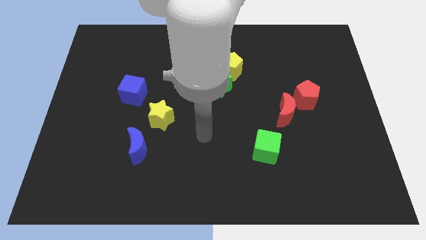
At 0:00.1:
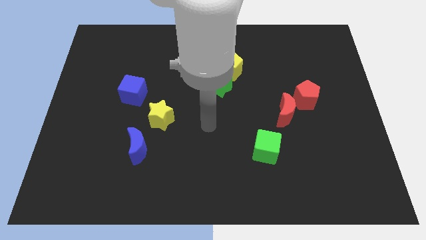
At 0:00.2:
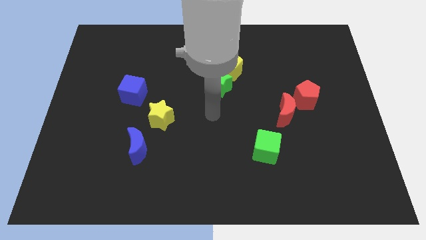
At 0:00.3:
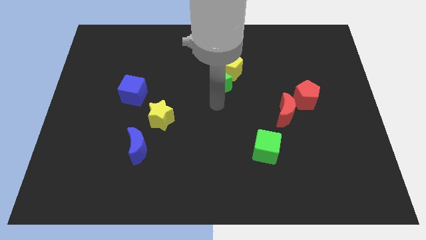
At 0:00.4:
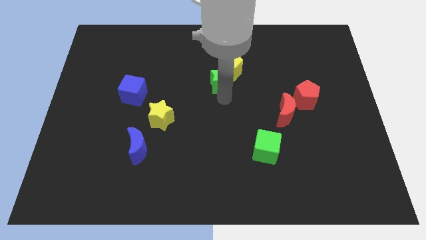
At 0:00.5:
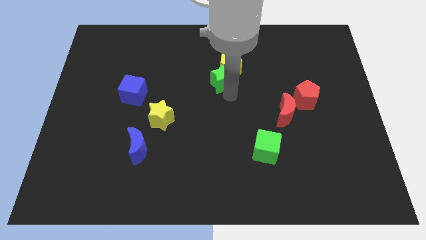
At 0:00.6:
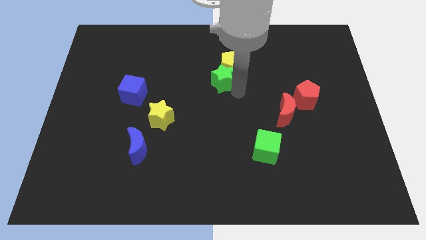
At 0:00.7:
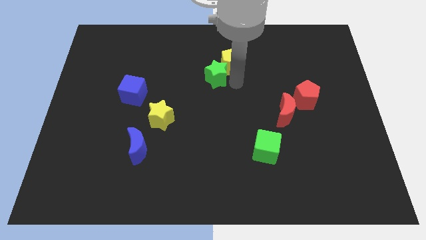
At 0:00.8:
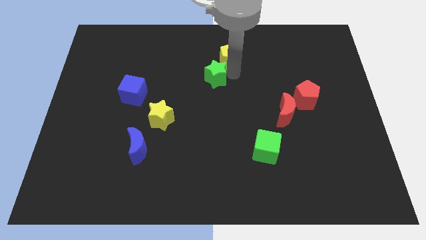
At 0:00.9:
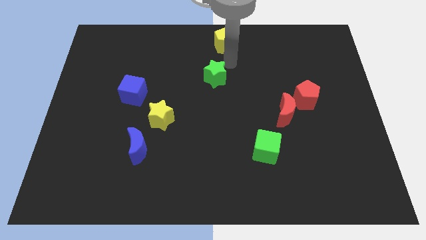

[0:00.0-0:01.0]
move the green star away from the yellow pentagon

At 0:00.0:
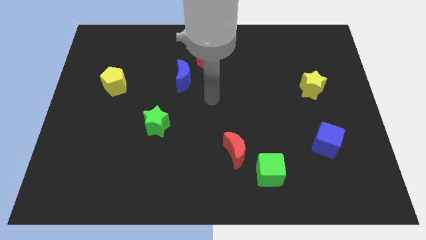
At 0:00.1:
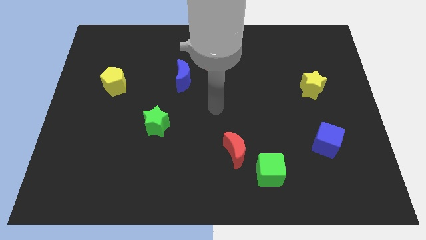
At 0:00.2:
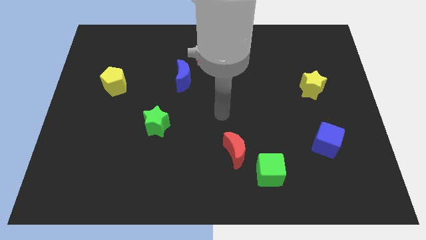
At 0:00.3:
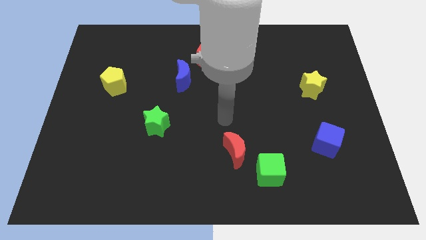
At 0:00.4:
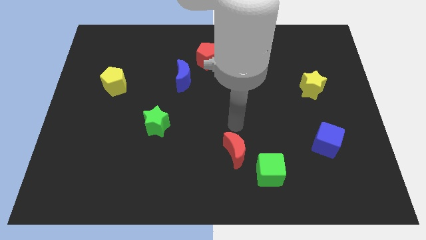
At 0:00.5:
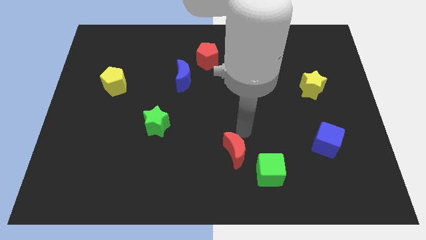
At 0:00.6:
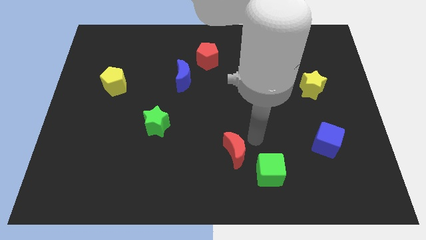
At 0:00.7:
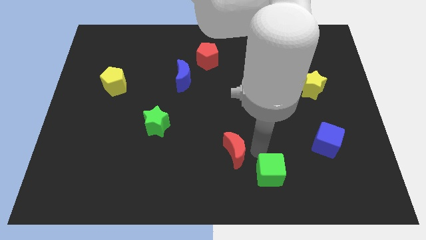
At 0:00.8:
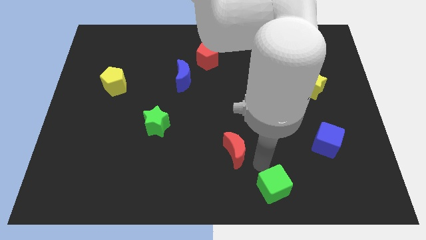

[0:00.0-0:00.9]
pull the red moon apart from the green cube

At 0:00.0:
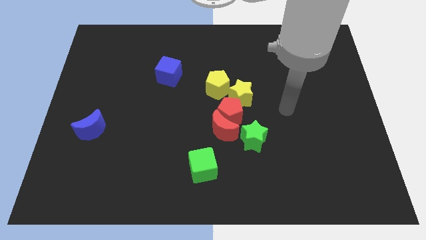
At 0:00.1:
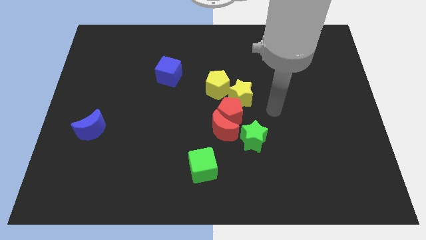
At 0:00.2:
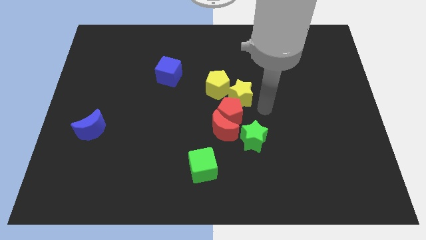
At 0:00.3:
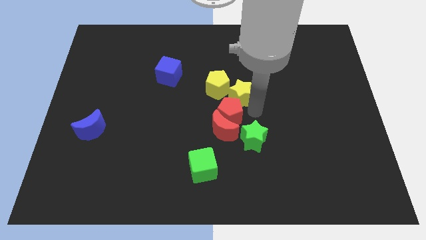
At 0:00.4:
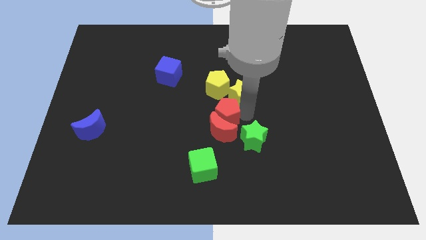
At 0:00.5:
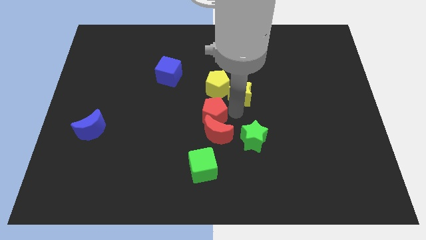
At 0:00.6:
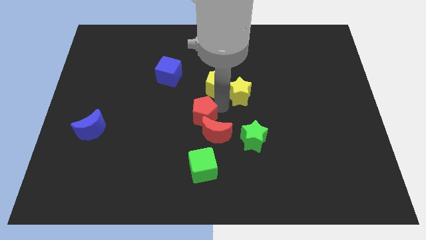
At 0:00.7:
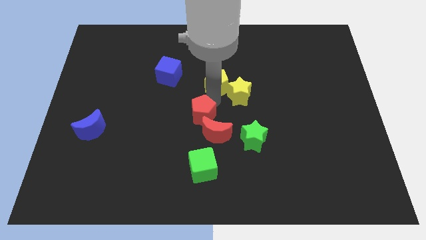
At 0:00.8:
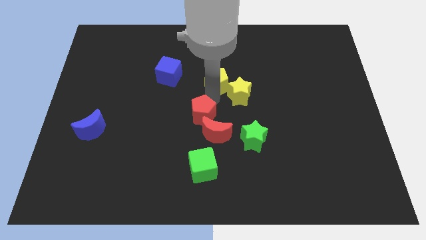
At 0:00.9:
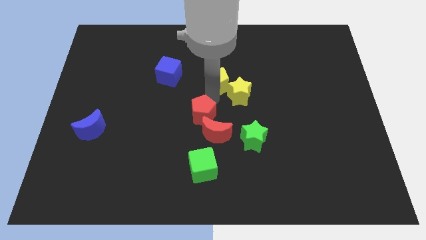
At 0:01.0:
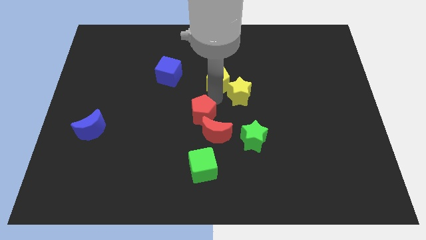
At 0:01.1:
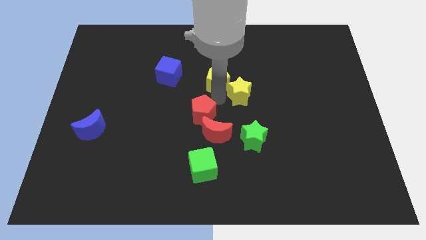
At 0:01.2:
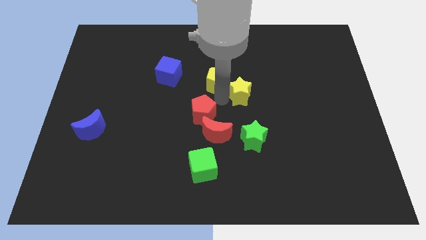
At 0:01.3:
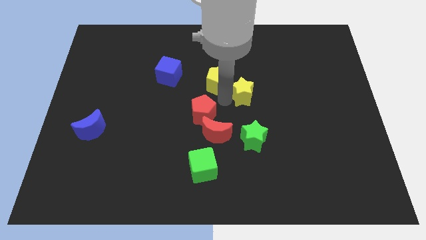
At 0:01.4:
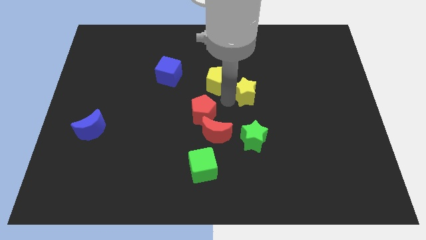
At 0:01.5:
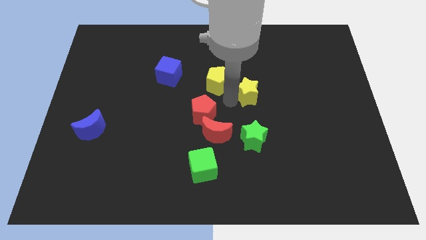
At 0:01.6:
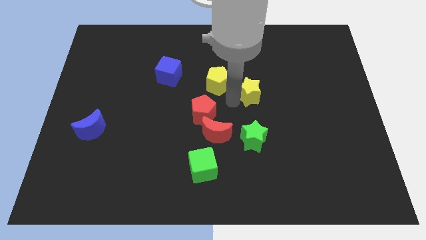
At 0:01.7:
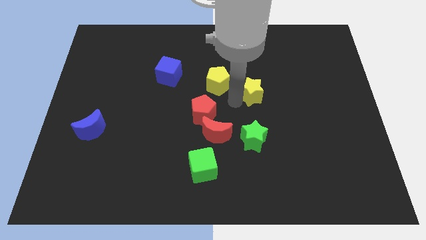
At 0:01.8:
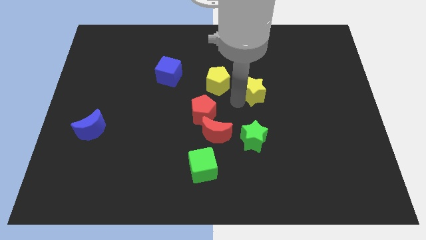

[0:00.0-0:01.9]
move the yellow star away from the red pentagon and yellow pentagon

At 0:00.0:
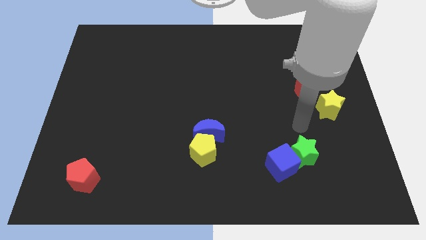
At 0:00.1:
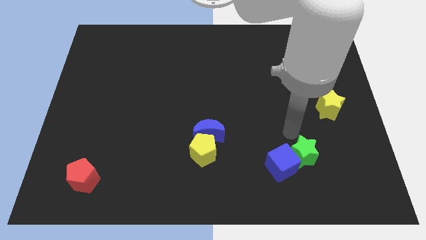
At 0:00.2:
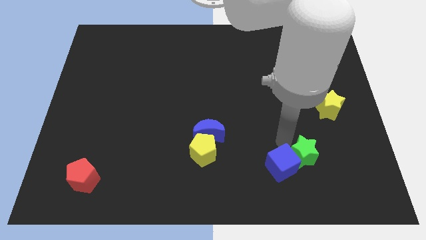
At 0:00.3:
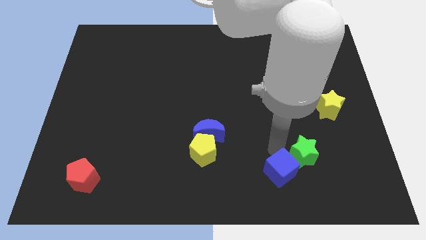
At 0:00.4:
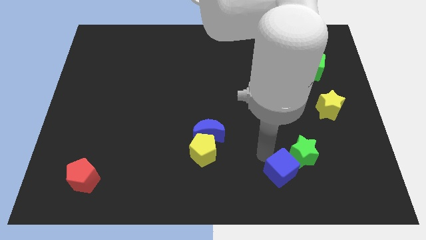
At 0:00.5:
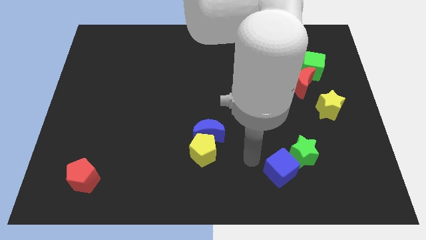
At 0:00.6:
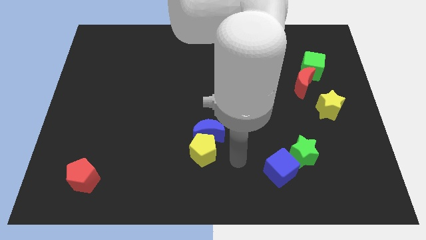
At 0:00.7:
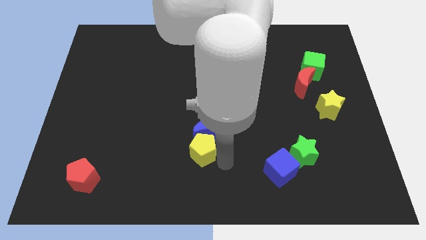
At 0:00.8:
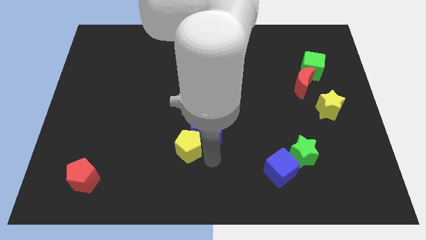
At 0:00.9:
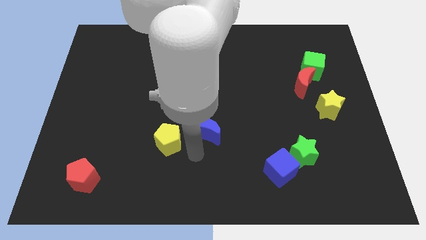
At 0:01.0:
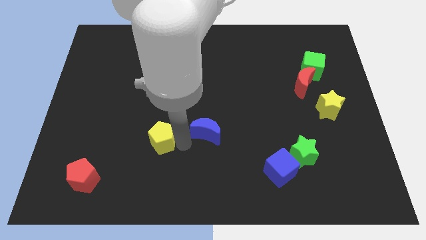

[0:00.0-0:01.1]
pull the blue moon apart from the yellow pentagon

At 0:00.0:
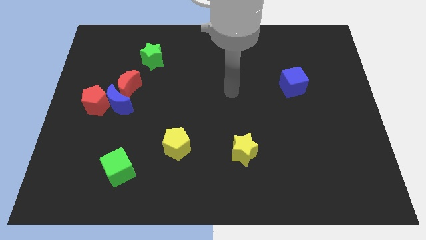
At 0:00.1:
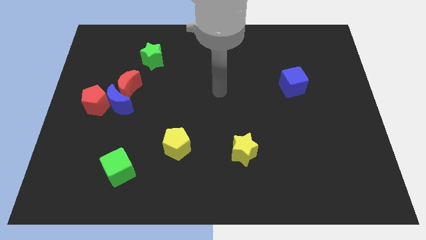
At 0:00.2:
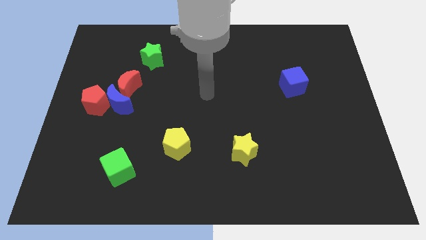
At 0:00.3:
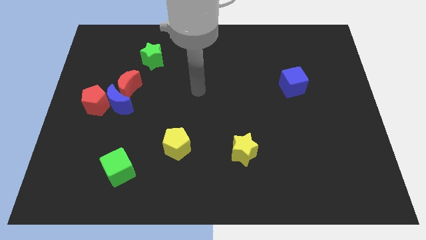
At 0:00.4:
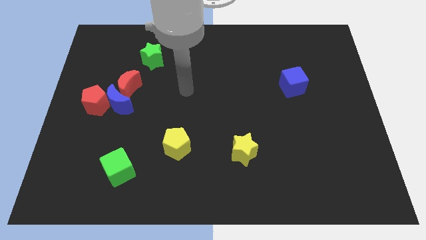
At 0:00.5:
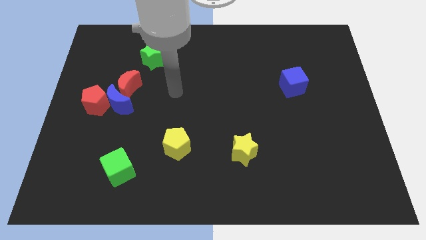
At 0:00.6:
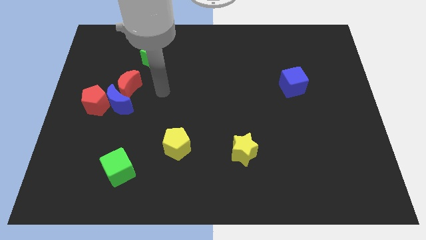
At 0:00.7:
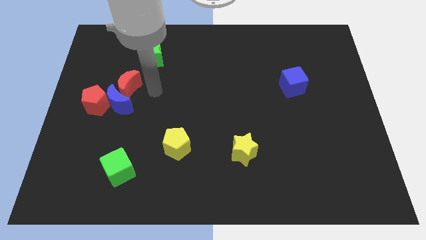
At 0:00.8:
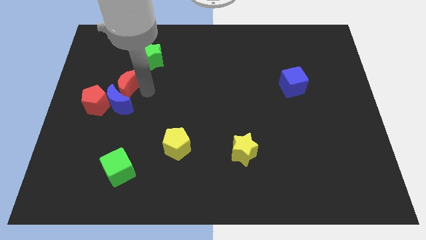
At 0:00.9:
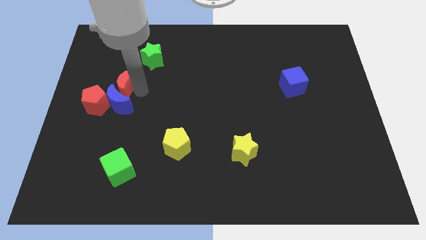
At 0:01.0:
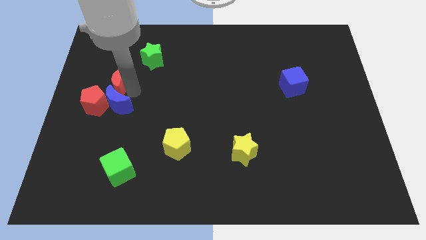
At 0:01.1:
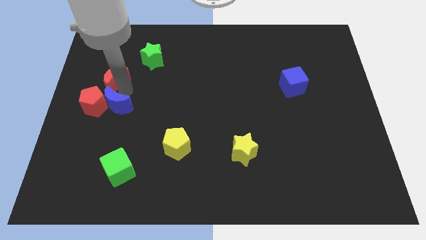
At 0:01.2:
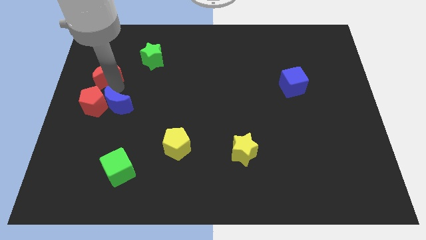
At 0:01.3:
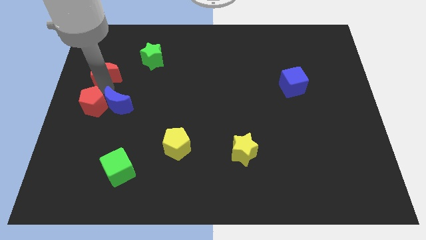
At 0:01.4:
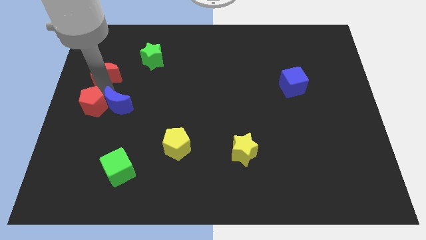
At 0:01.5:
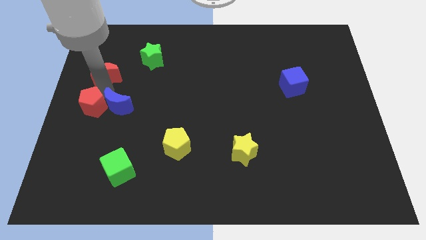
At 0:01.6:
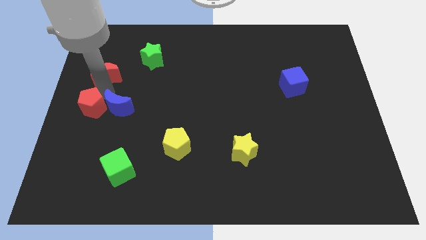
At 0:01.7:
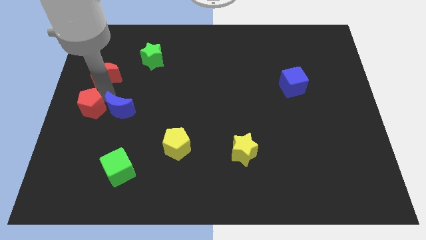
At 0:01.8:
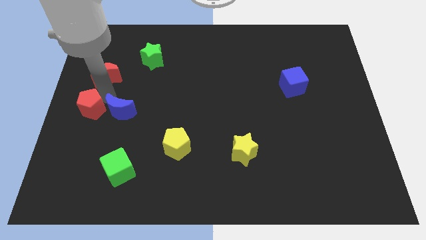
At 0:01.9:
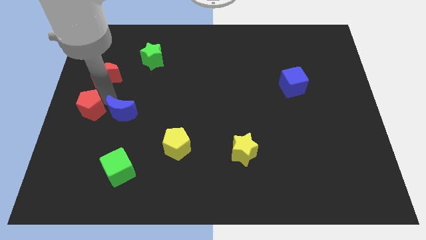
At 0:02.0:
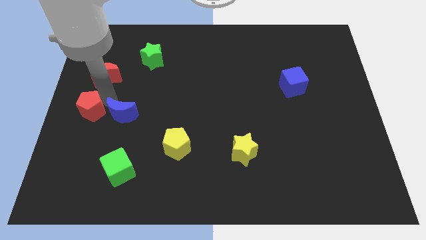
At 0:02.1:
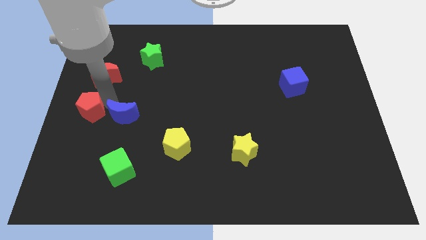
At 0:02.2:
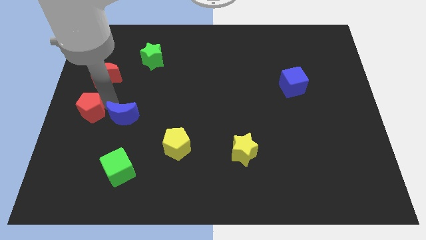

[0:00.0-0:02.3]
move the blue moon away from the red pentagon and red moon

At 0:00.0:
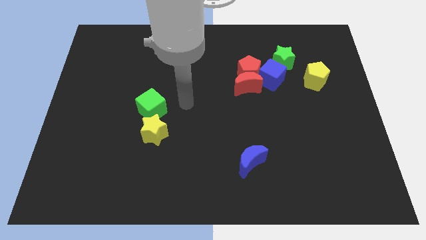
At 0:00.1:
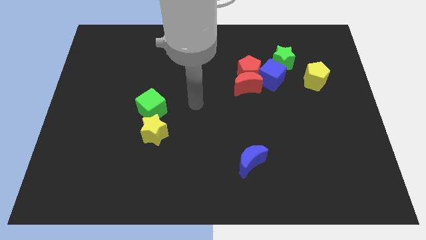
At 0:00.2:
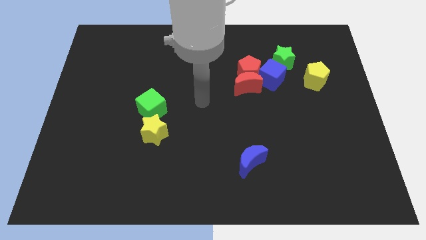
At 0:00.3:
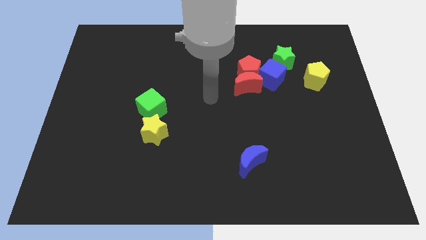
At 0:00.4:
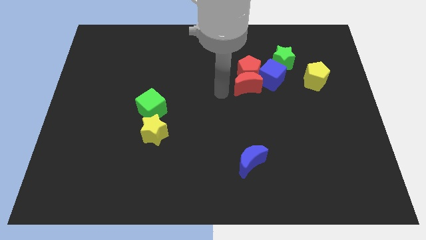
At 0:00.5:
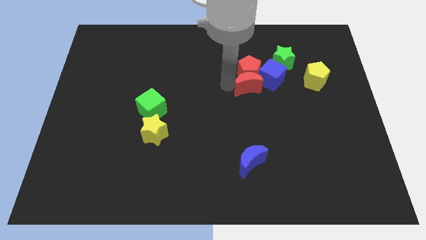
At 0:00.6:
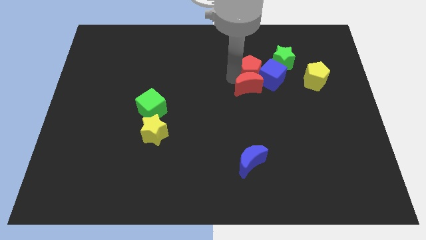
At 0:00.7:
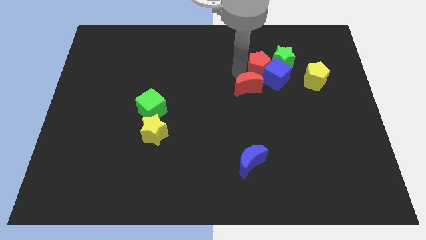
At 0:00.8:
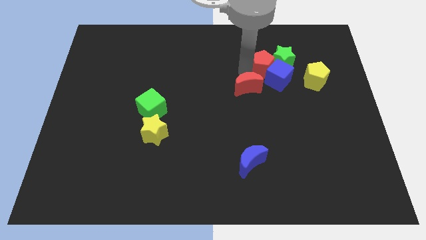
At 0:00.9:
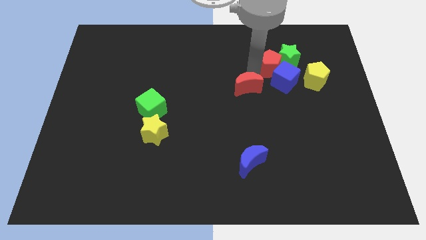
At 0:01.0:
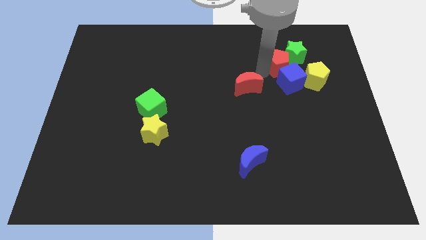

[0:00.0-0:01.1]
separate the red moon from the red pentagon and blue cube

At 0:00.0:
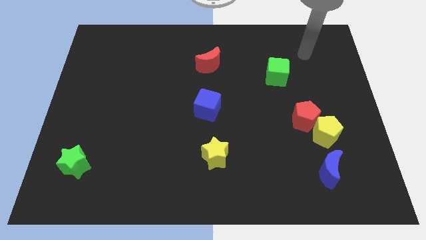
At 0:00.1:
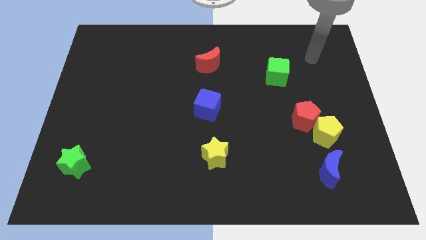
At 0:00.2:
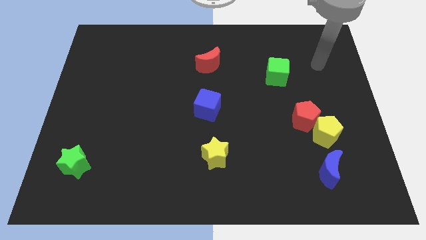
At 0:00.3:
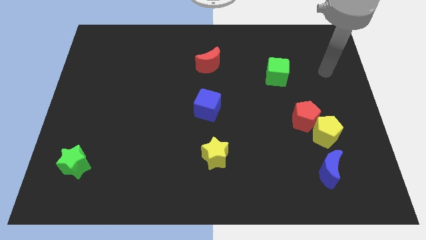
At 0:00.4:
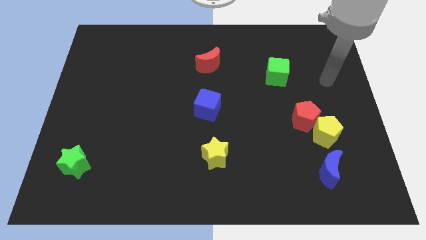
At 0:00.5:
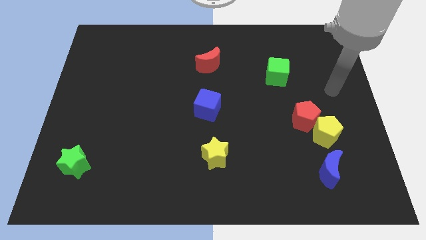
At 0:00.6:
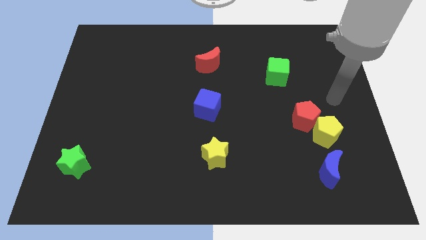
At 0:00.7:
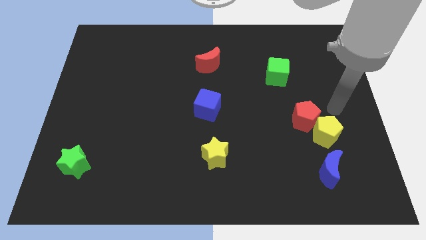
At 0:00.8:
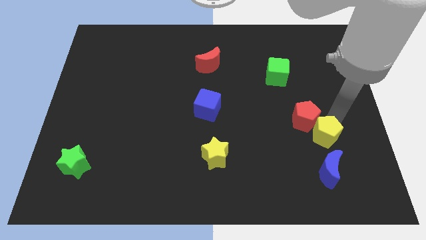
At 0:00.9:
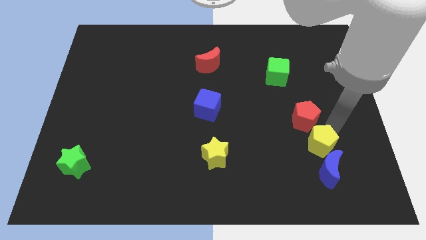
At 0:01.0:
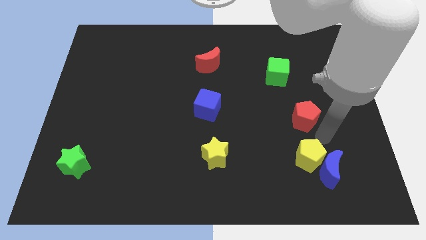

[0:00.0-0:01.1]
separate the red pentagon from the yellow pentagon
